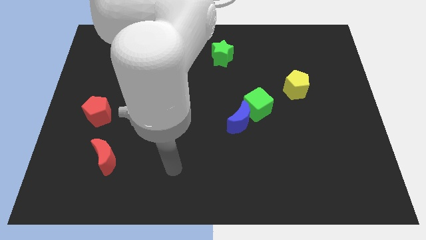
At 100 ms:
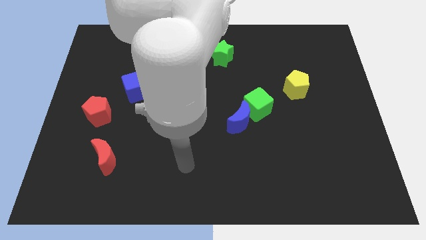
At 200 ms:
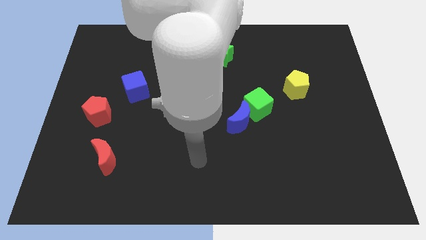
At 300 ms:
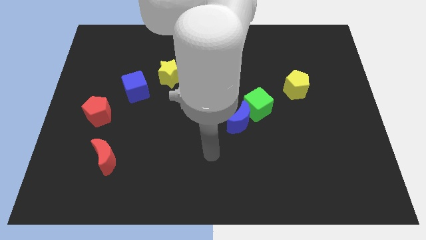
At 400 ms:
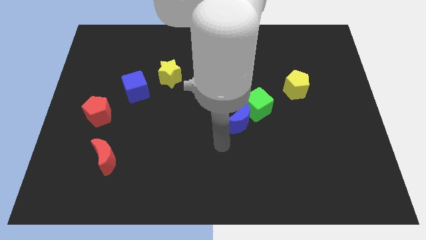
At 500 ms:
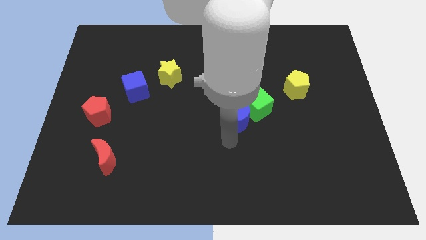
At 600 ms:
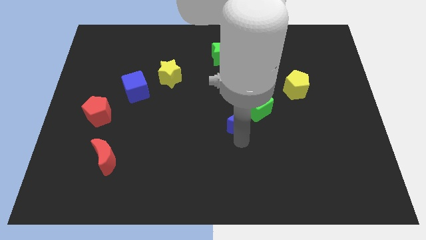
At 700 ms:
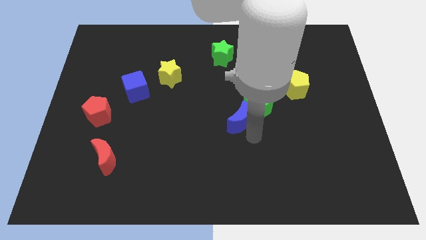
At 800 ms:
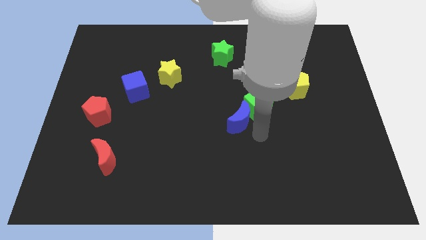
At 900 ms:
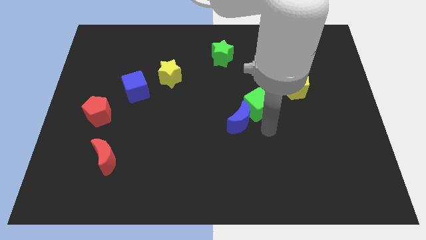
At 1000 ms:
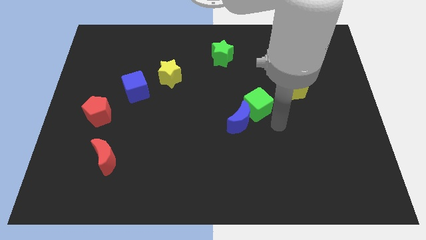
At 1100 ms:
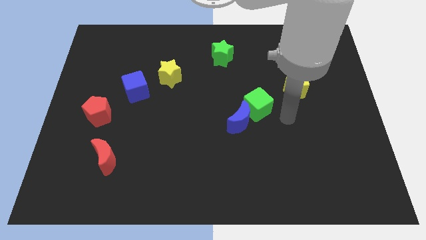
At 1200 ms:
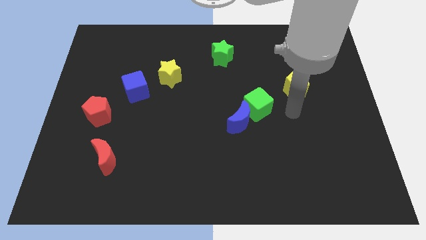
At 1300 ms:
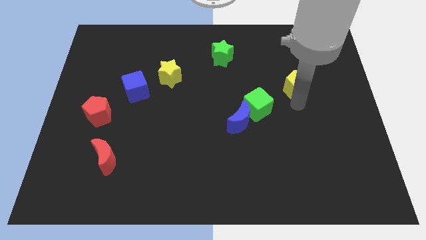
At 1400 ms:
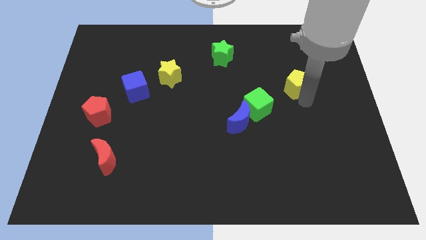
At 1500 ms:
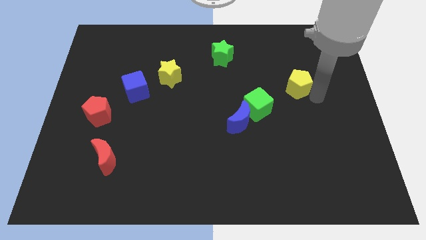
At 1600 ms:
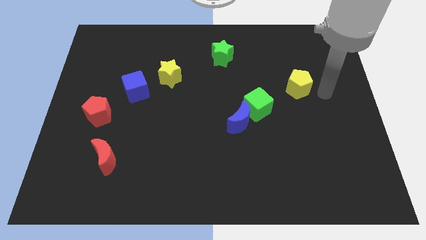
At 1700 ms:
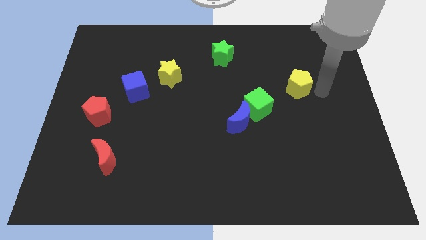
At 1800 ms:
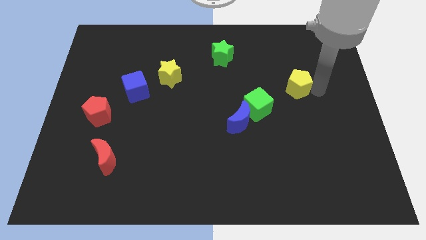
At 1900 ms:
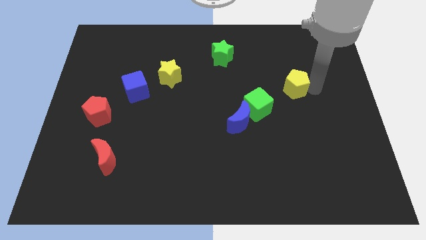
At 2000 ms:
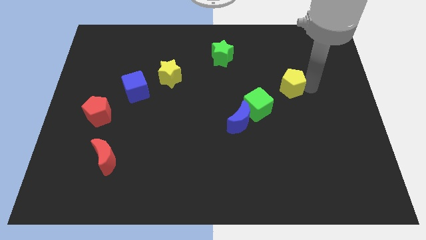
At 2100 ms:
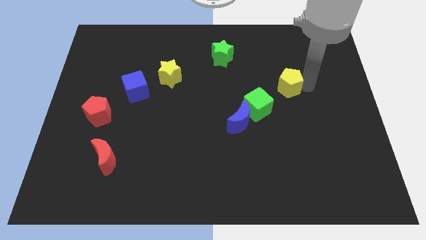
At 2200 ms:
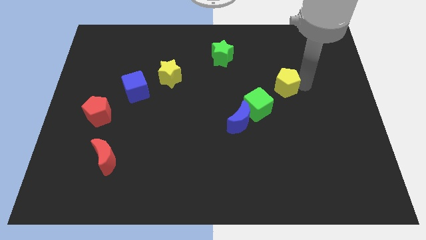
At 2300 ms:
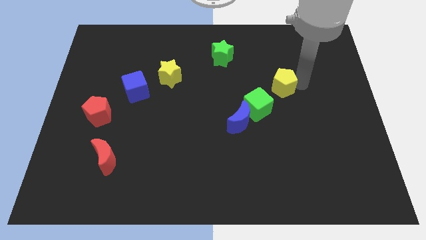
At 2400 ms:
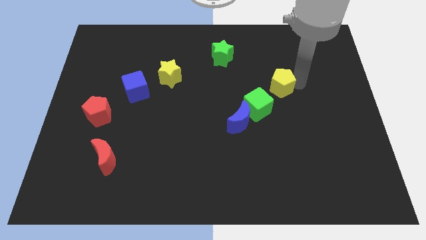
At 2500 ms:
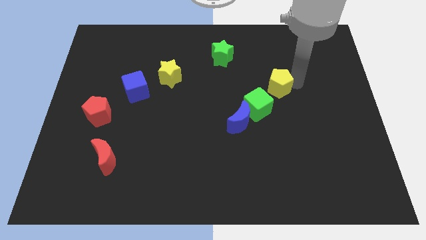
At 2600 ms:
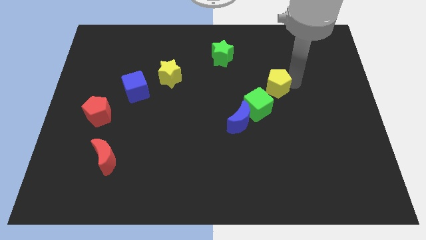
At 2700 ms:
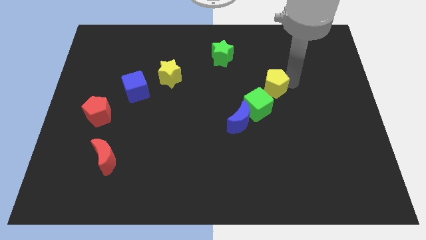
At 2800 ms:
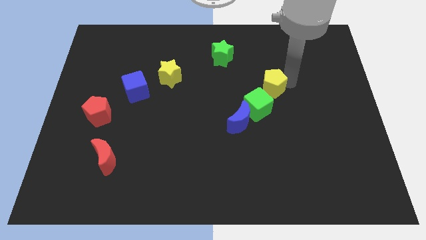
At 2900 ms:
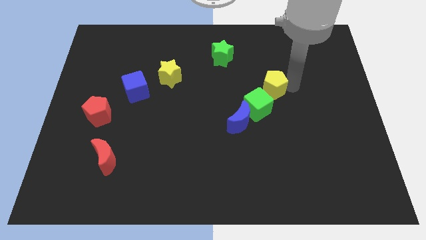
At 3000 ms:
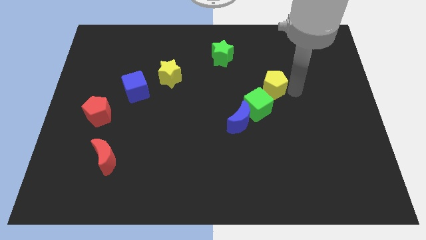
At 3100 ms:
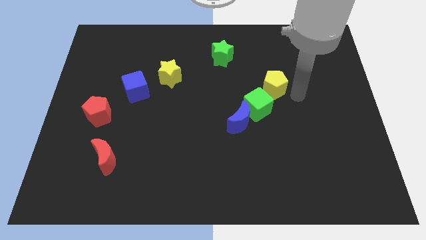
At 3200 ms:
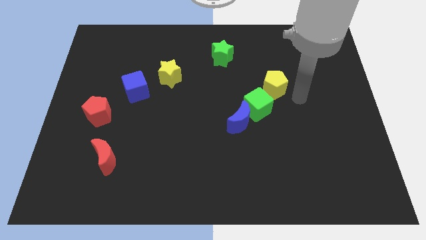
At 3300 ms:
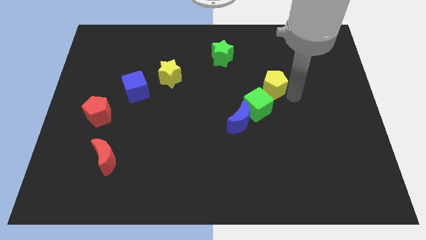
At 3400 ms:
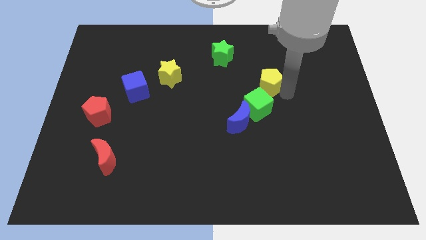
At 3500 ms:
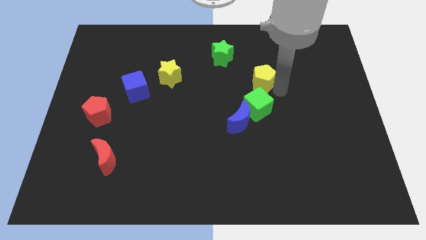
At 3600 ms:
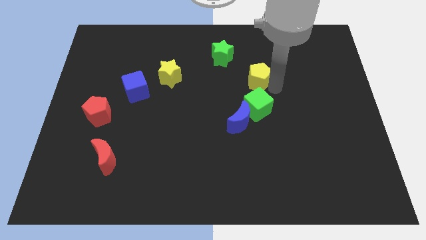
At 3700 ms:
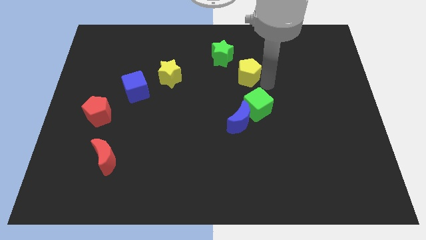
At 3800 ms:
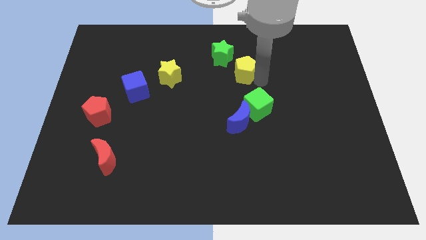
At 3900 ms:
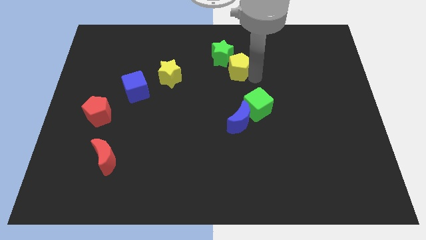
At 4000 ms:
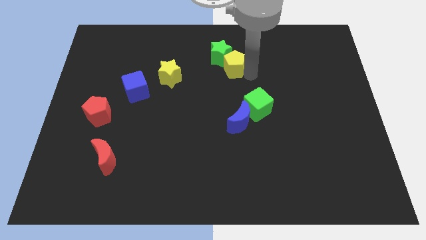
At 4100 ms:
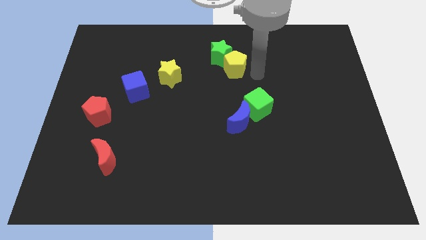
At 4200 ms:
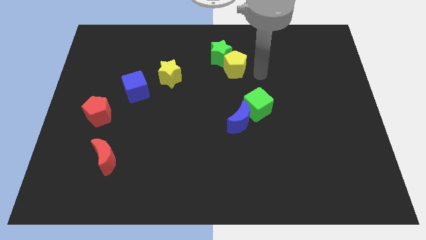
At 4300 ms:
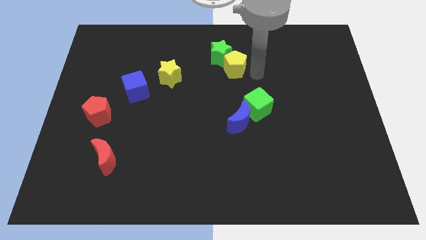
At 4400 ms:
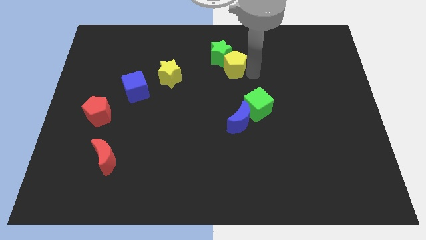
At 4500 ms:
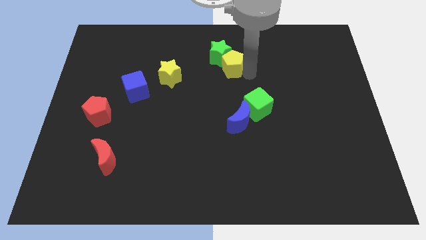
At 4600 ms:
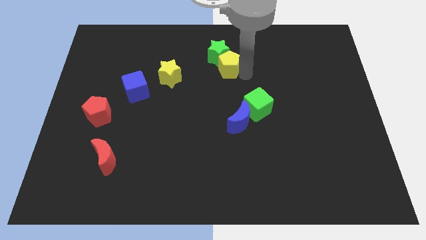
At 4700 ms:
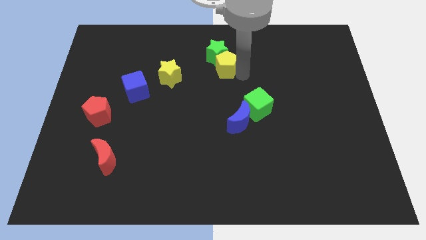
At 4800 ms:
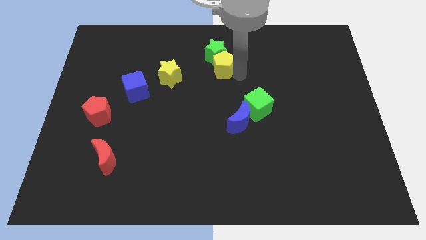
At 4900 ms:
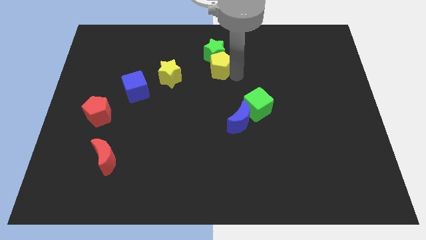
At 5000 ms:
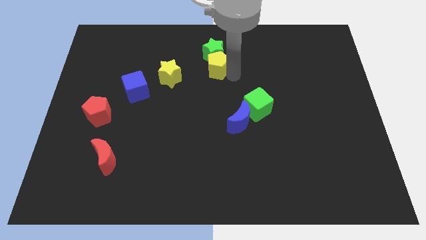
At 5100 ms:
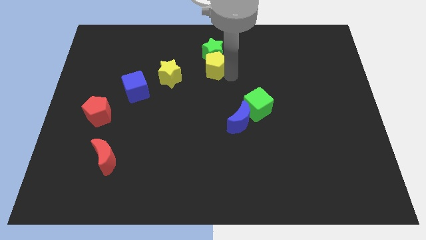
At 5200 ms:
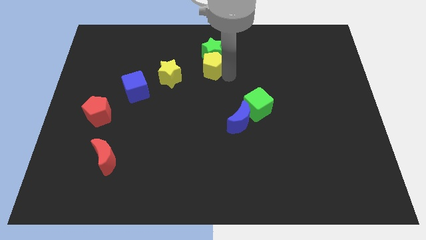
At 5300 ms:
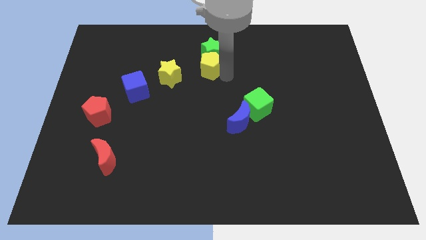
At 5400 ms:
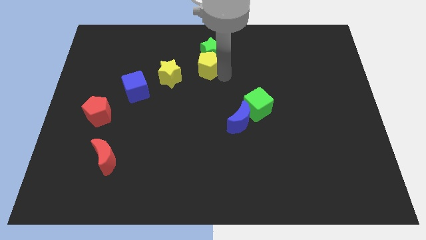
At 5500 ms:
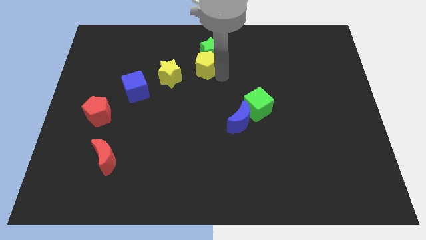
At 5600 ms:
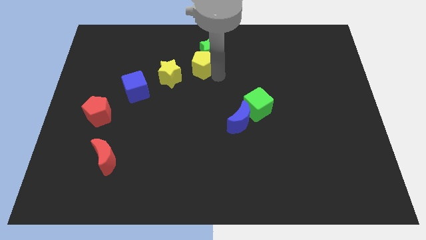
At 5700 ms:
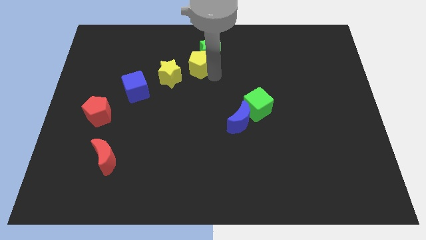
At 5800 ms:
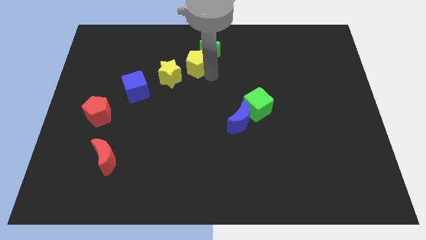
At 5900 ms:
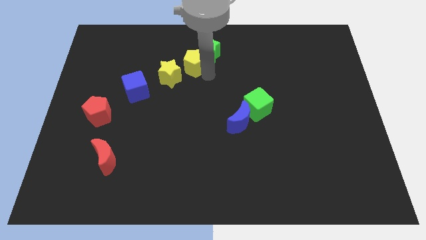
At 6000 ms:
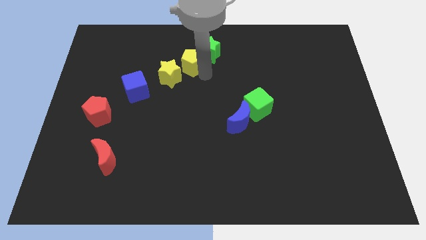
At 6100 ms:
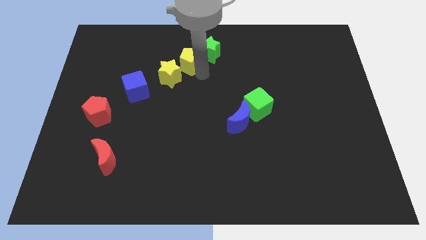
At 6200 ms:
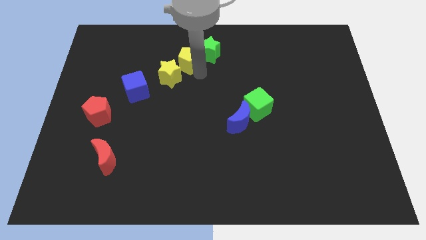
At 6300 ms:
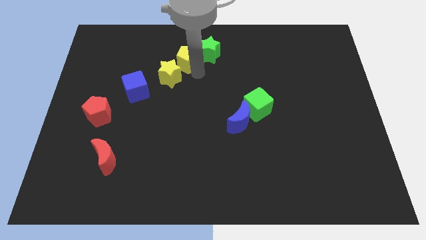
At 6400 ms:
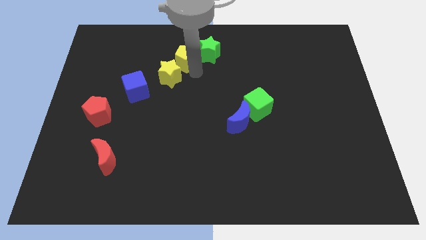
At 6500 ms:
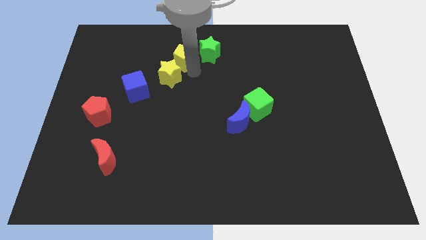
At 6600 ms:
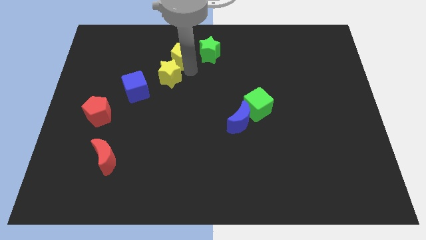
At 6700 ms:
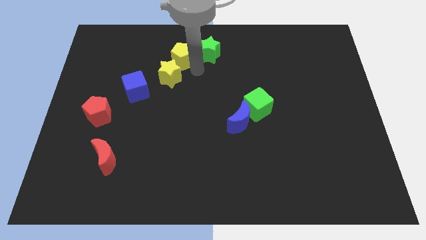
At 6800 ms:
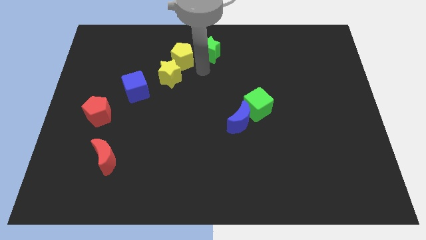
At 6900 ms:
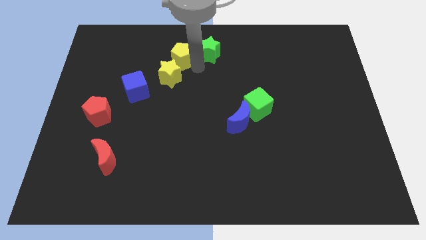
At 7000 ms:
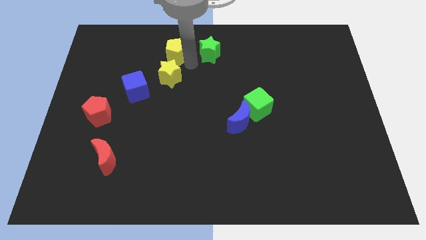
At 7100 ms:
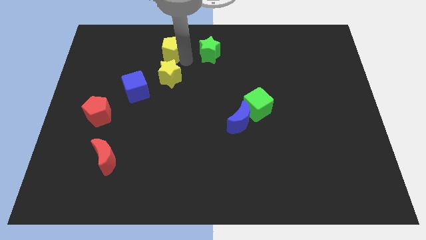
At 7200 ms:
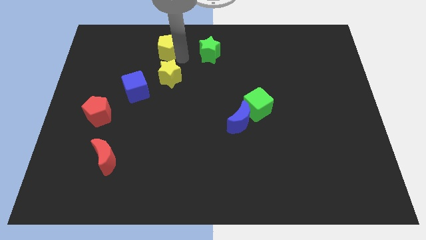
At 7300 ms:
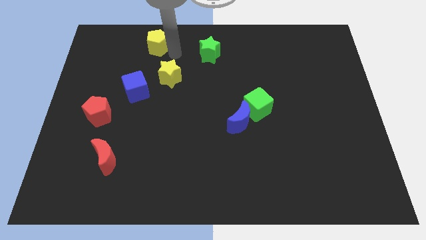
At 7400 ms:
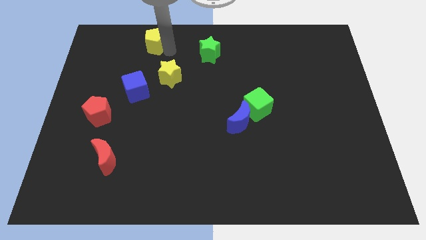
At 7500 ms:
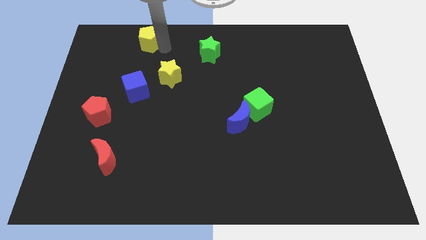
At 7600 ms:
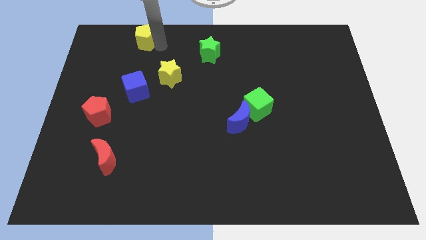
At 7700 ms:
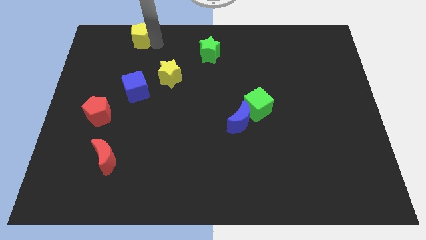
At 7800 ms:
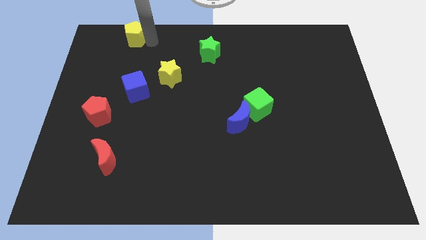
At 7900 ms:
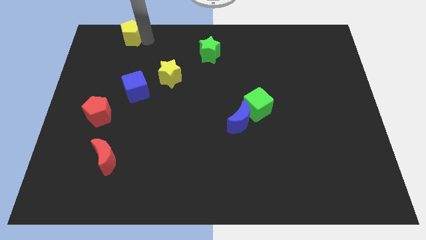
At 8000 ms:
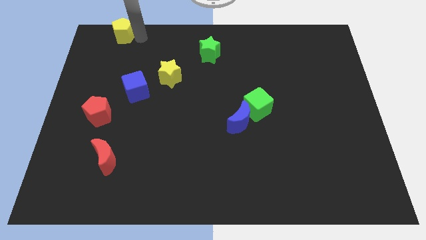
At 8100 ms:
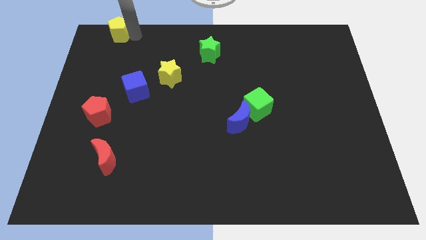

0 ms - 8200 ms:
put the yellow pentagon to the upper left corner
